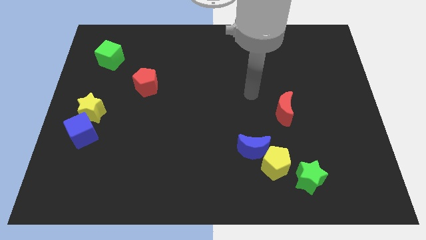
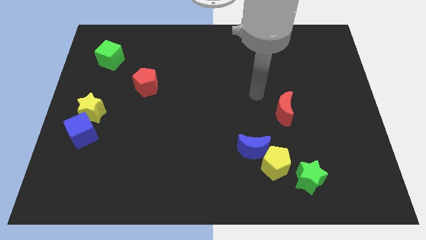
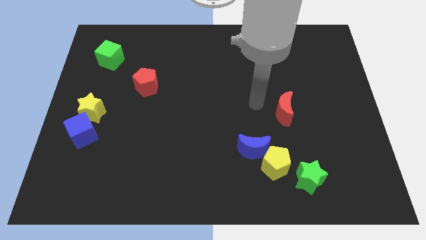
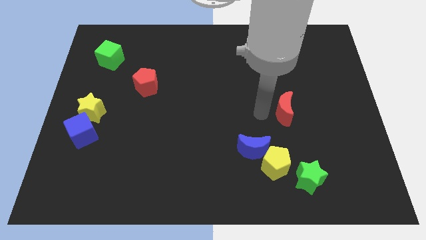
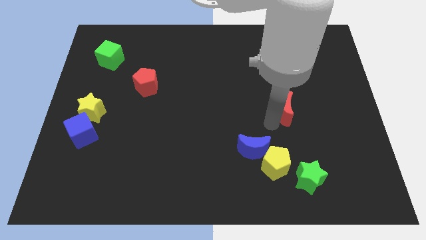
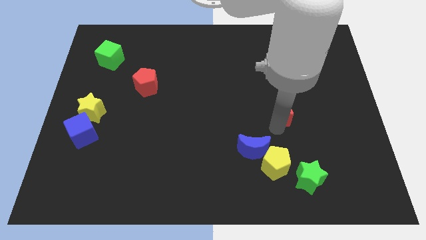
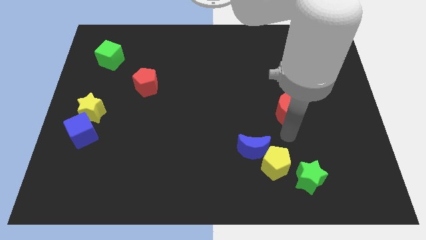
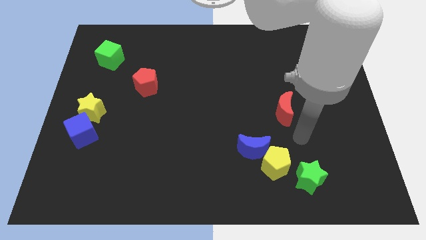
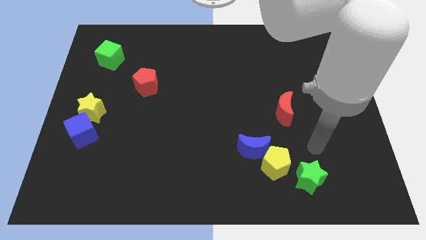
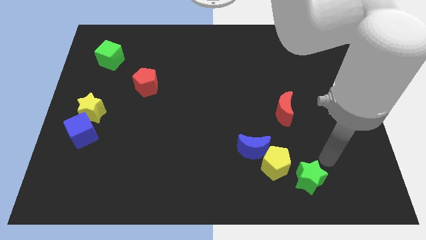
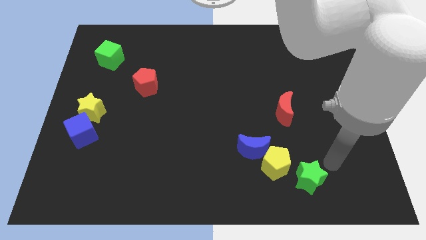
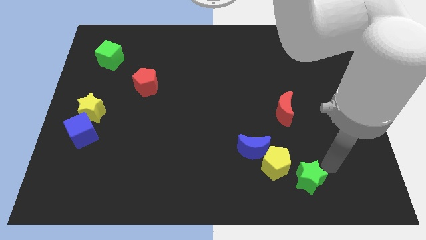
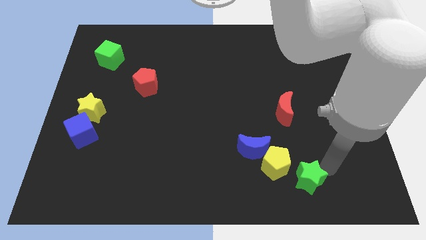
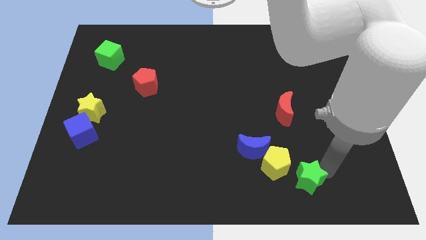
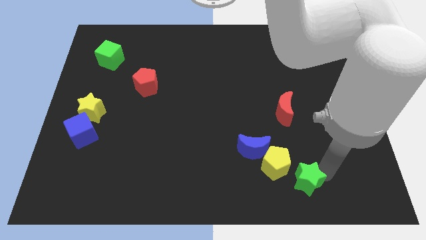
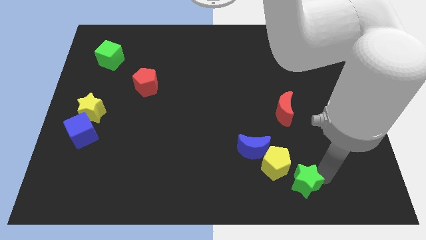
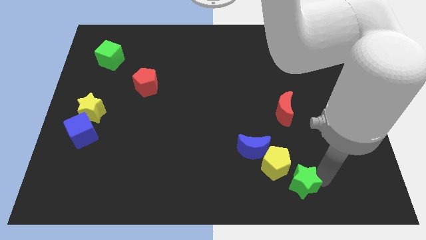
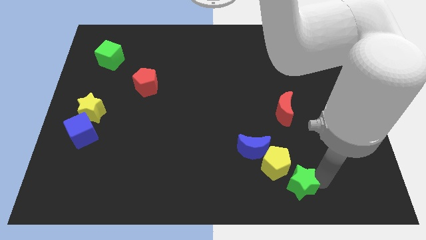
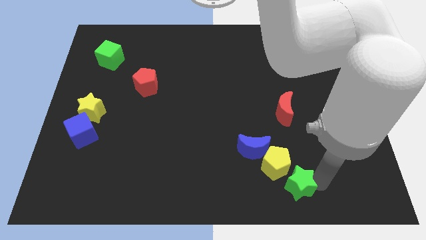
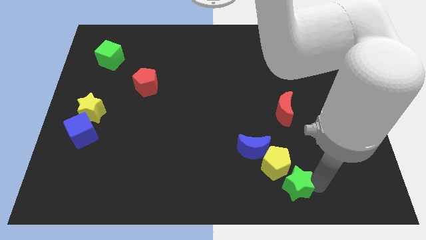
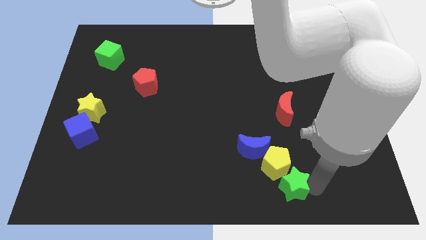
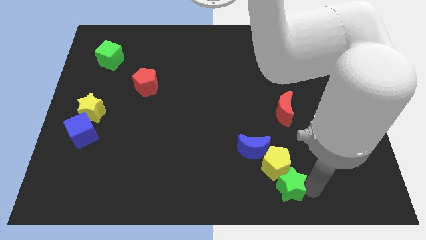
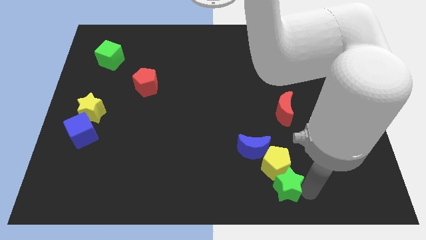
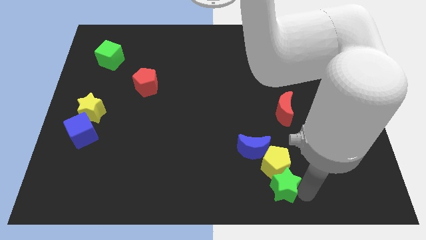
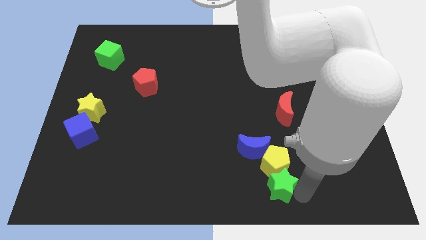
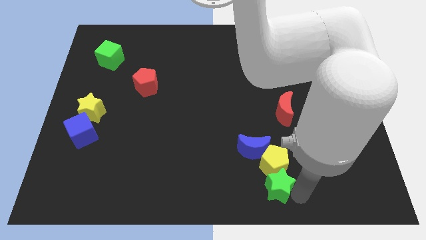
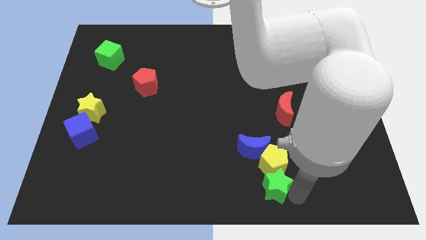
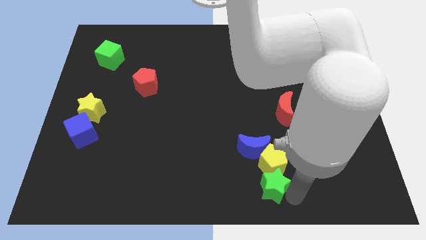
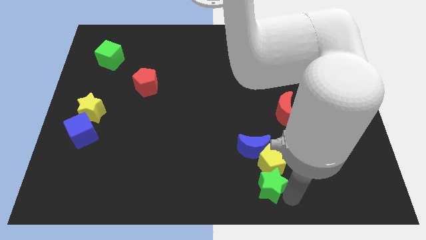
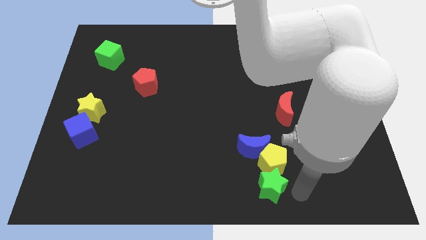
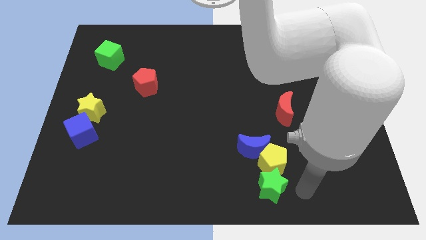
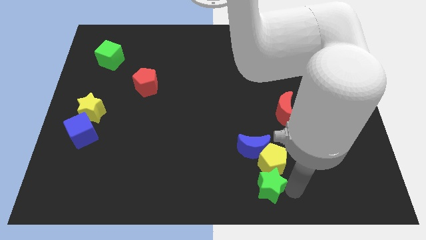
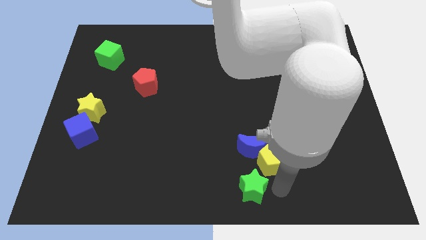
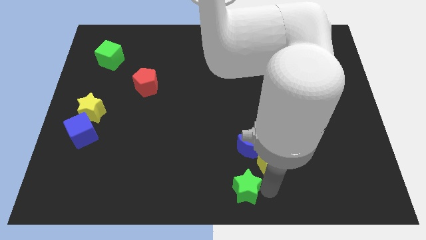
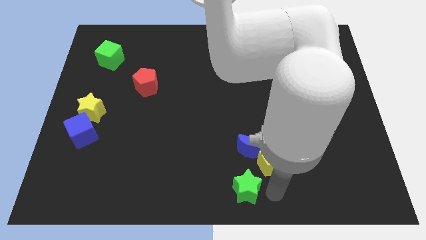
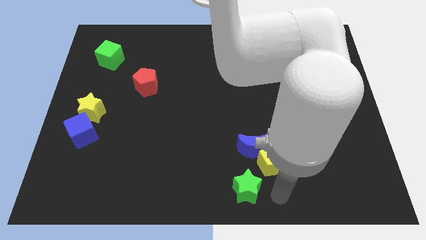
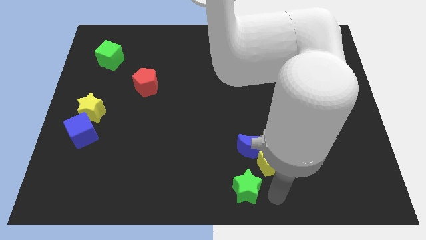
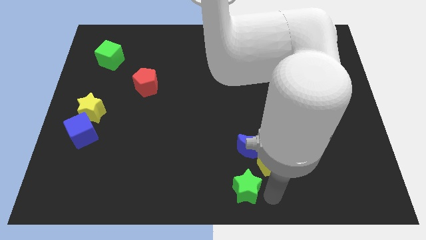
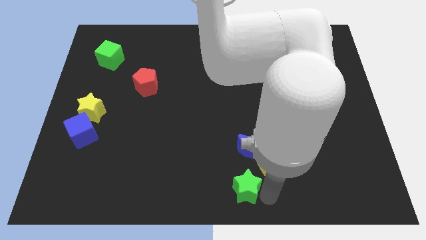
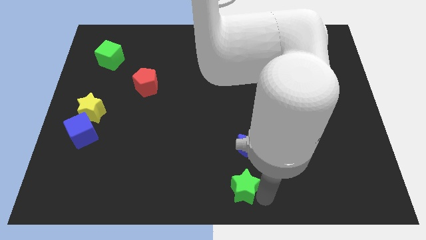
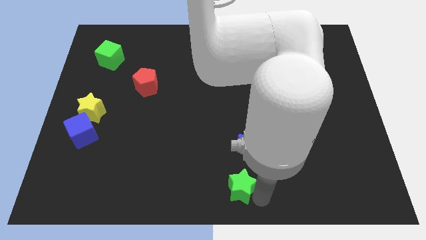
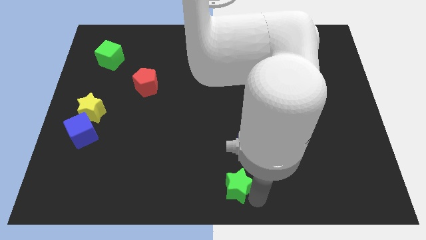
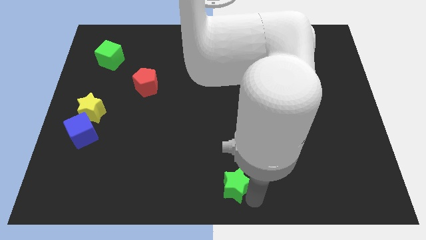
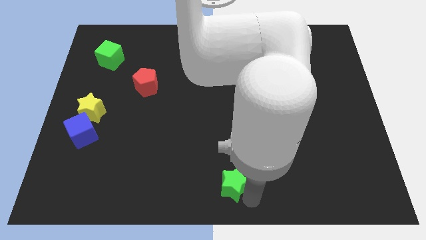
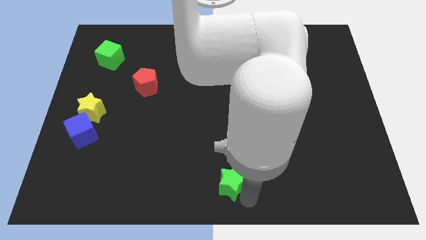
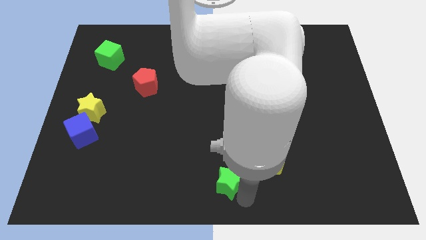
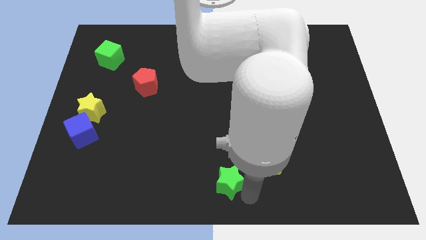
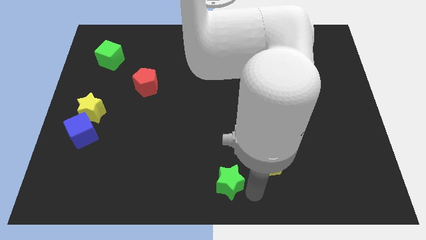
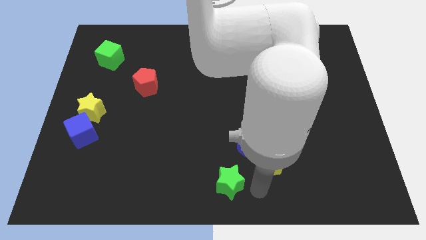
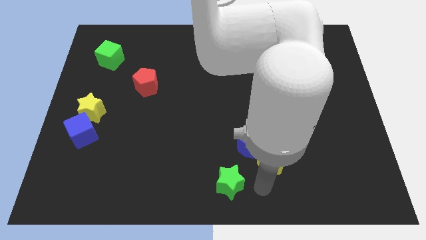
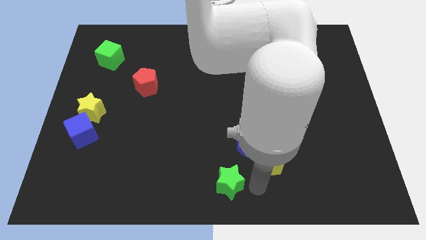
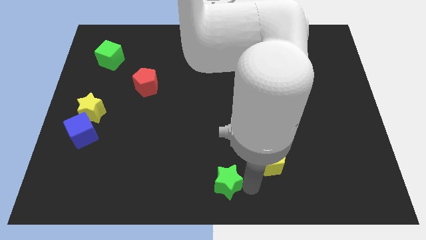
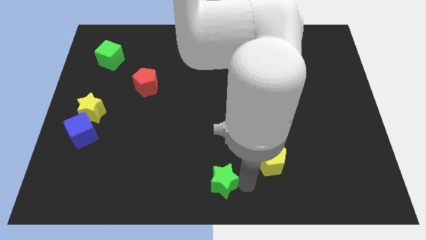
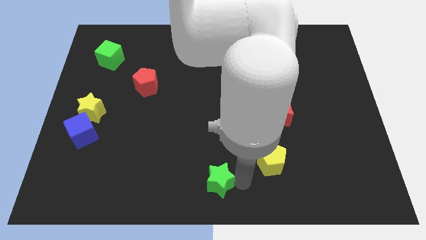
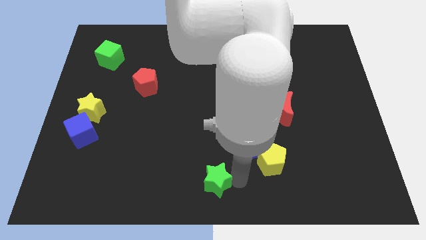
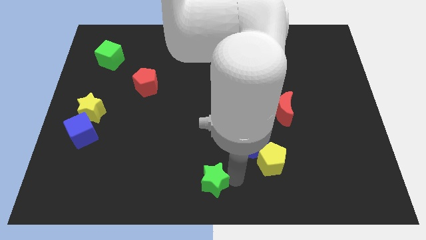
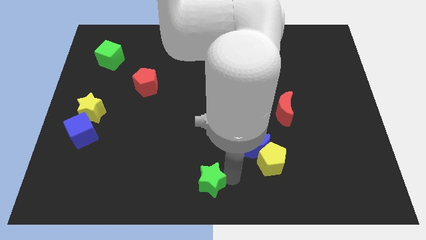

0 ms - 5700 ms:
move the green star to the left

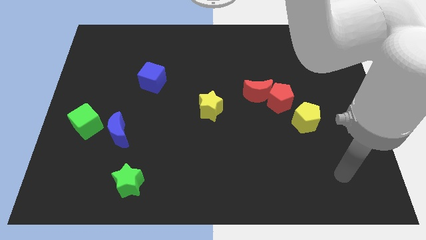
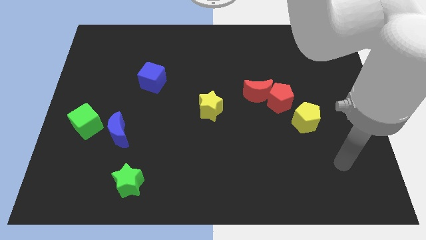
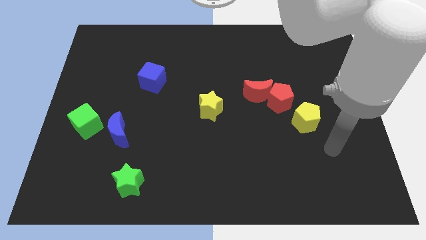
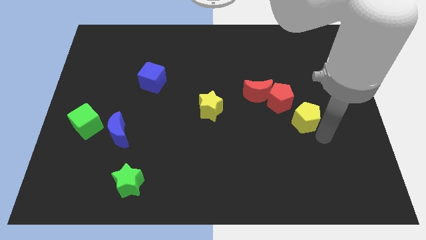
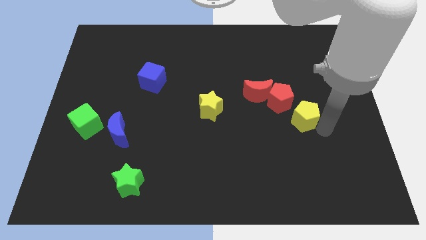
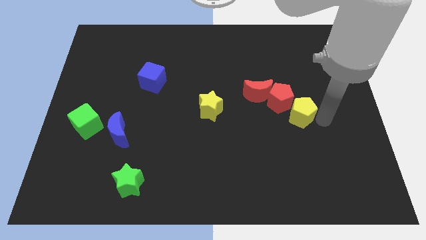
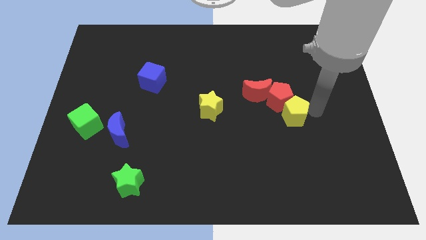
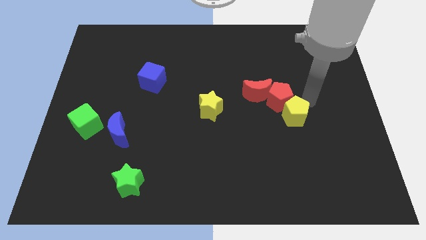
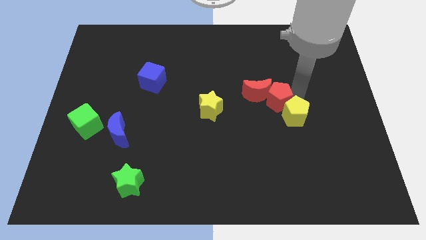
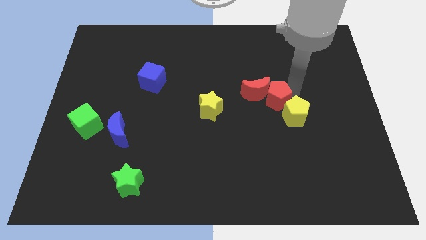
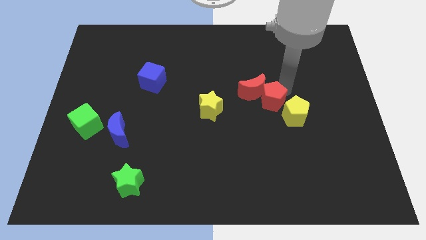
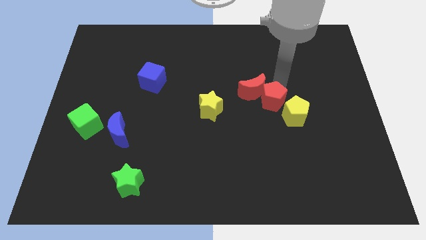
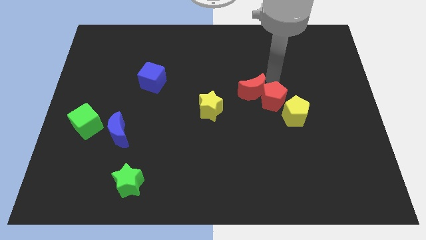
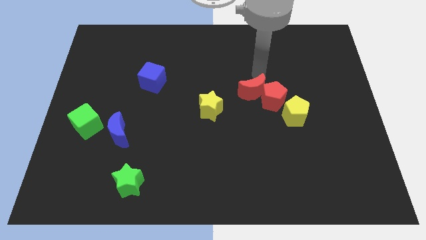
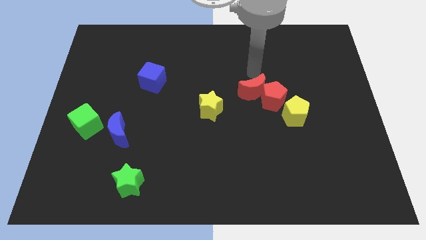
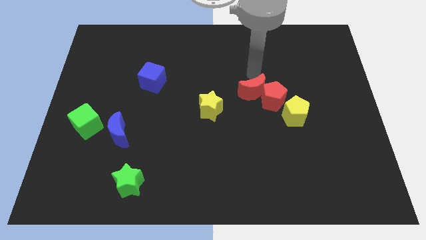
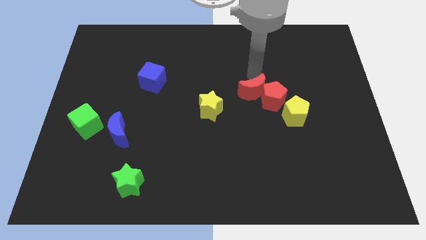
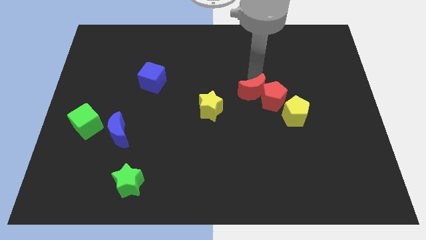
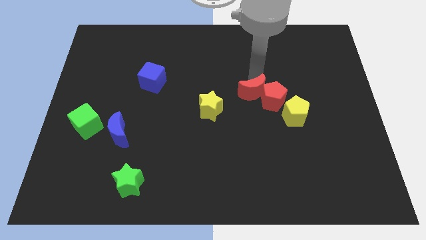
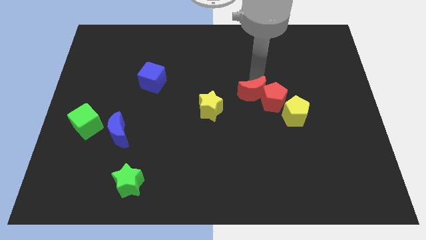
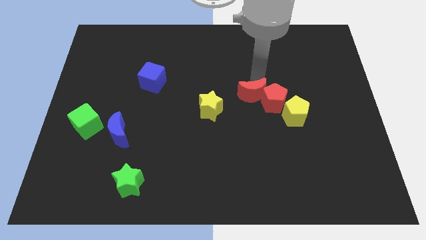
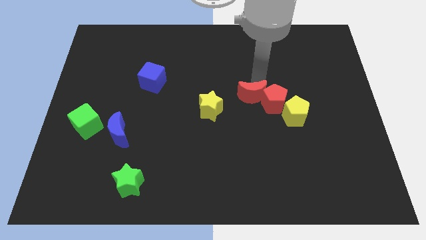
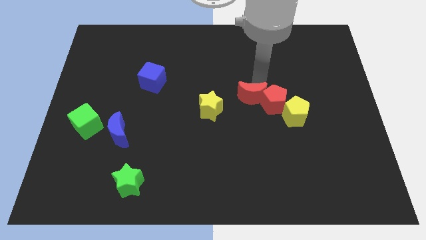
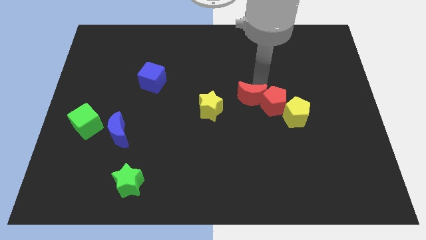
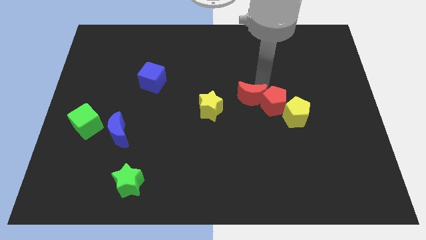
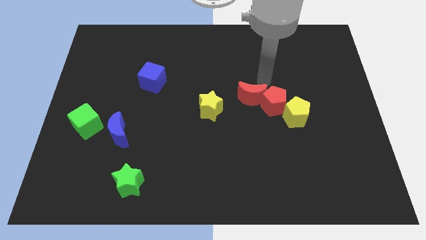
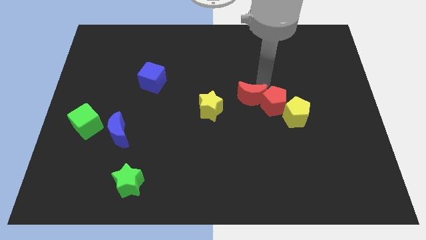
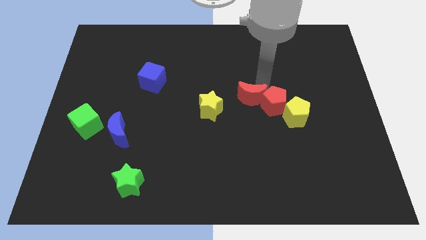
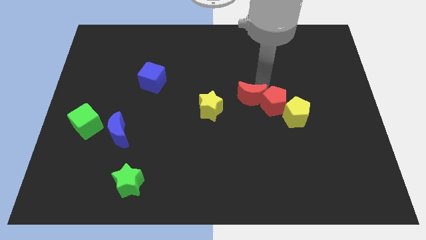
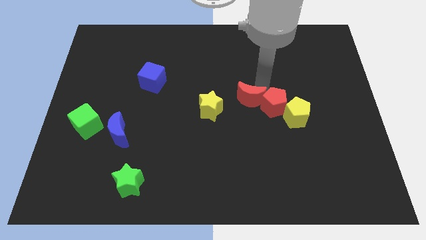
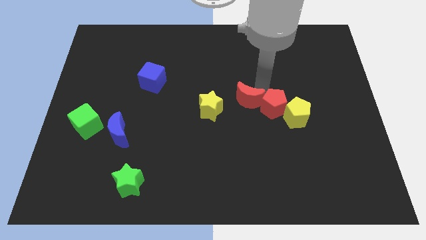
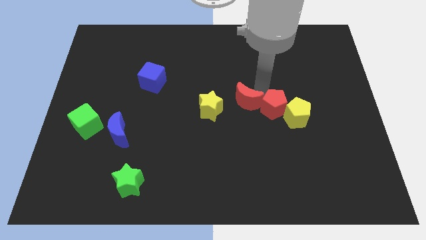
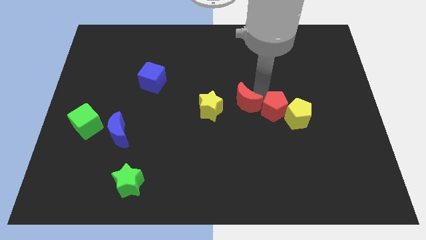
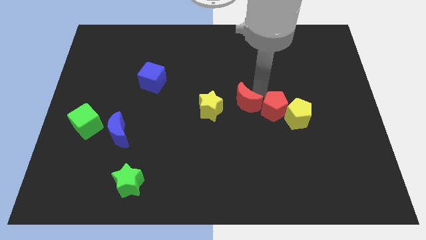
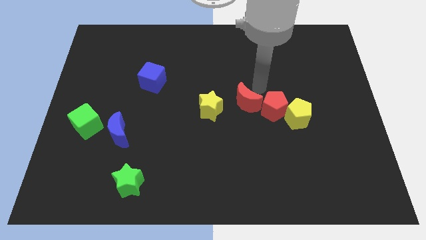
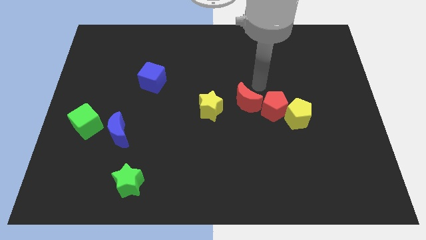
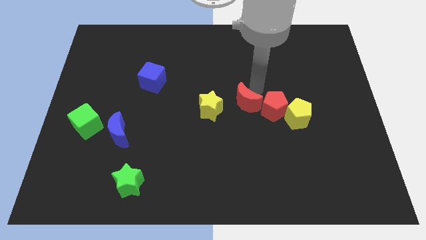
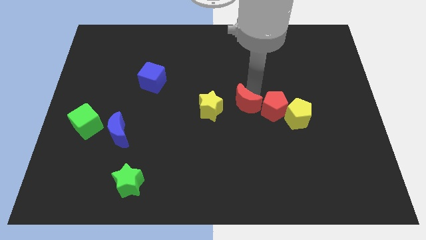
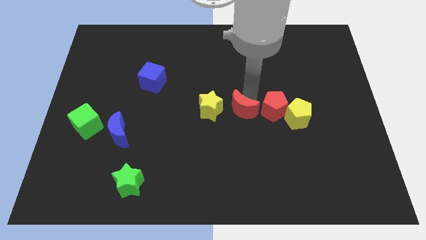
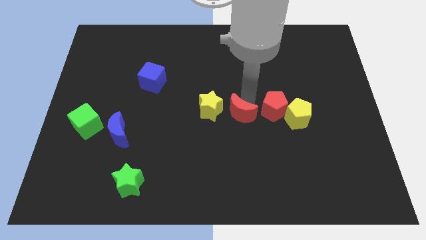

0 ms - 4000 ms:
slightly slide the red moon downwards and then to the left
